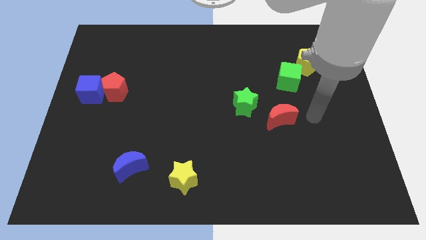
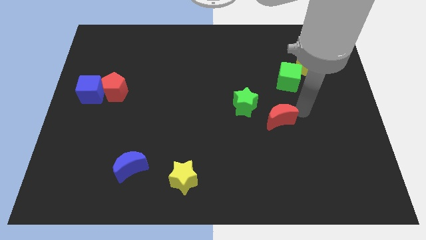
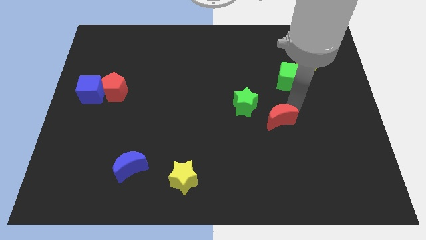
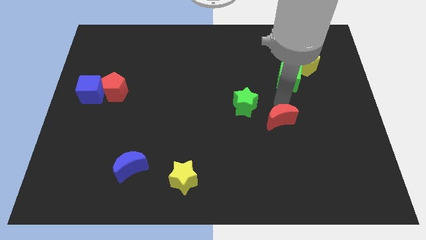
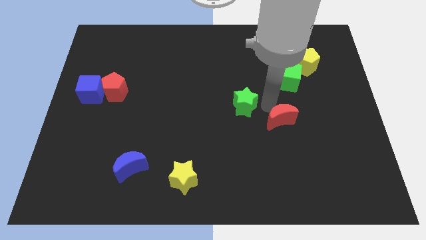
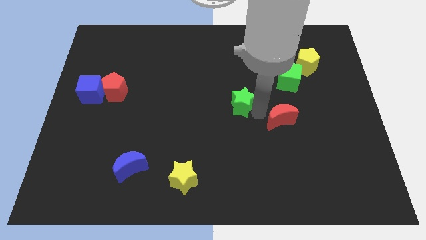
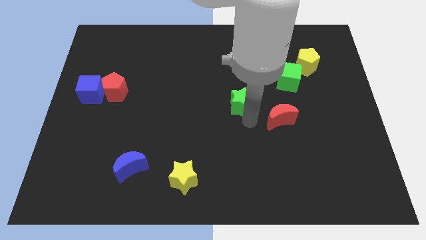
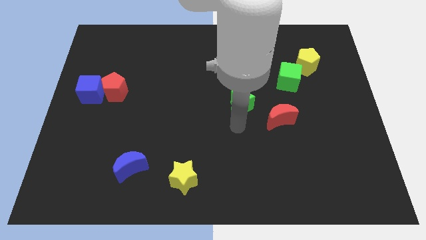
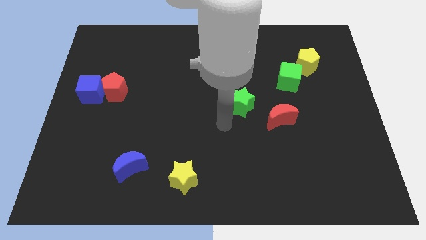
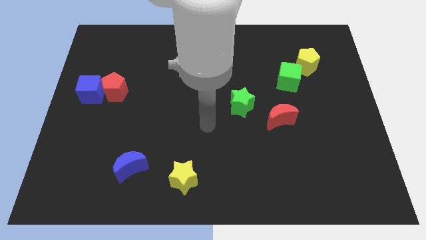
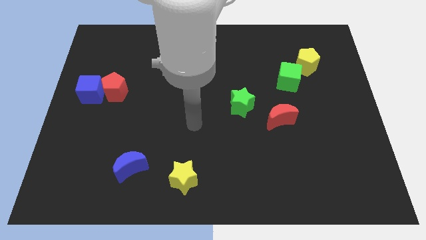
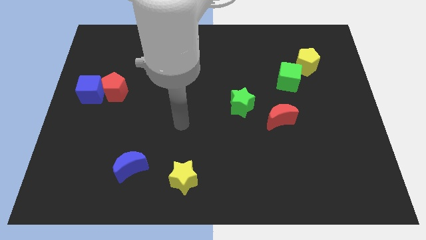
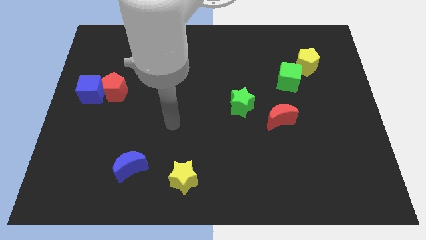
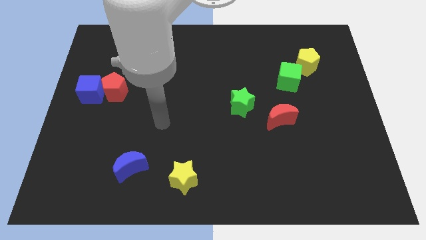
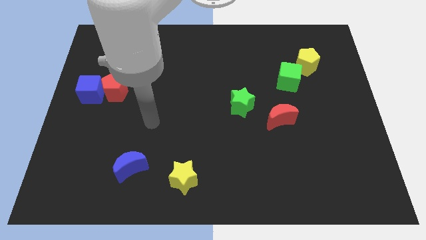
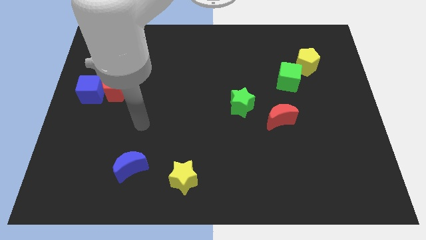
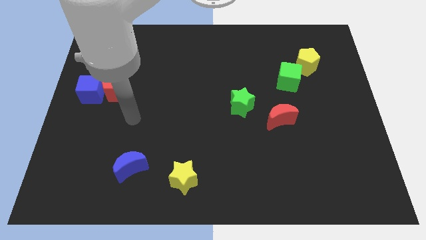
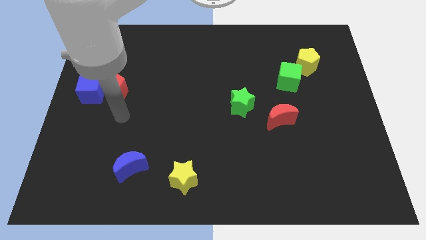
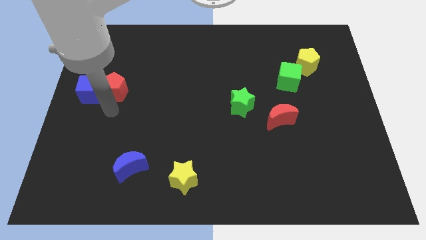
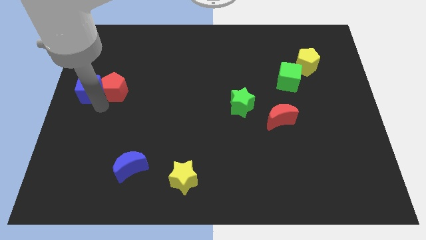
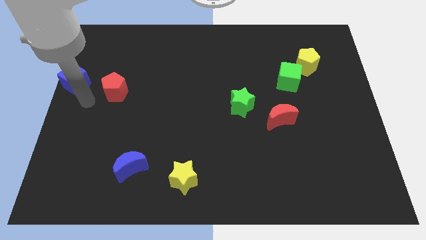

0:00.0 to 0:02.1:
pull the red pentagon apart from the blue cube

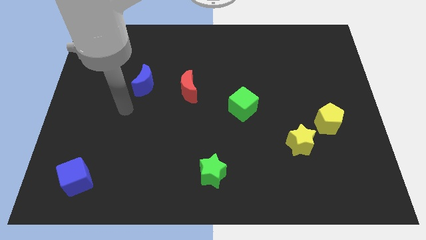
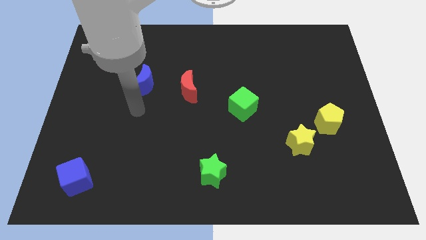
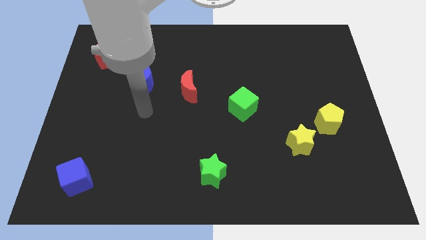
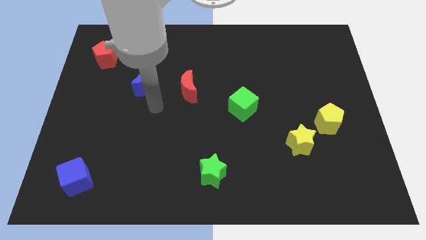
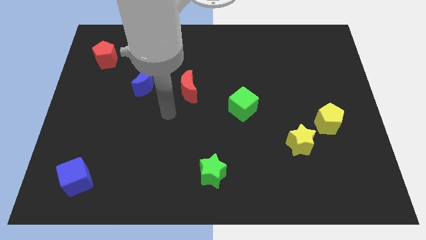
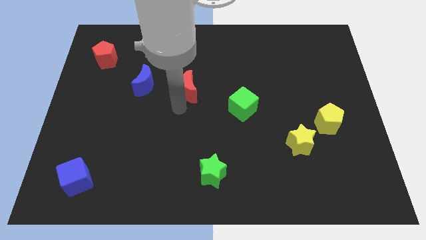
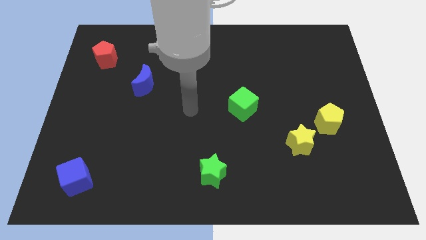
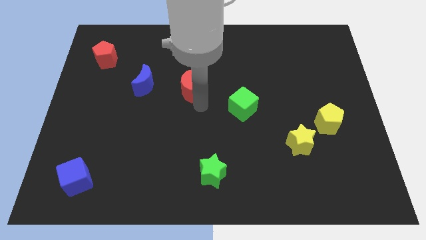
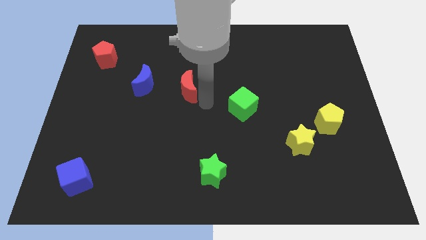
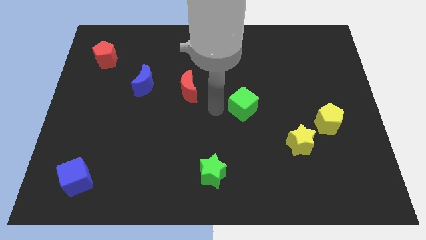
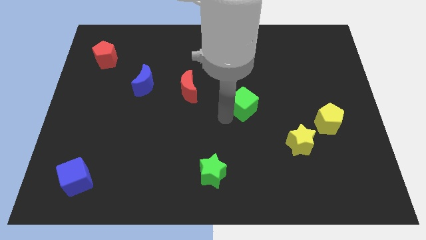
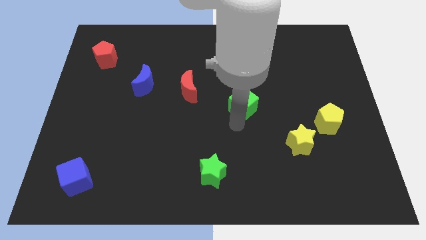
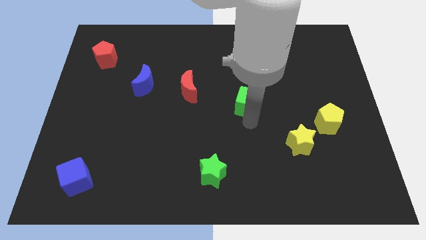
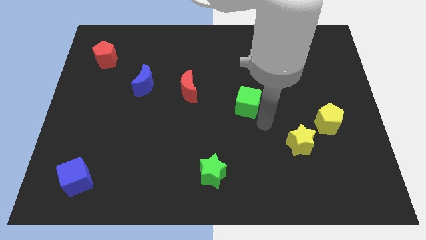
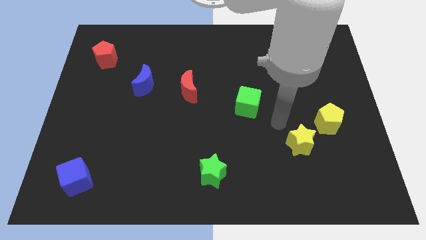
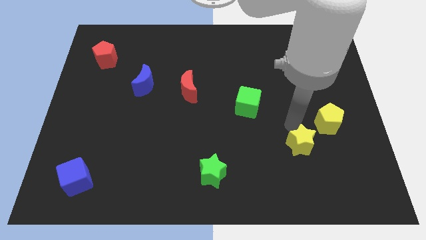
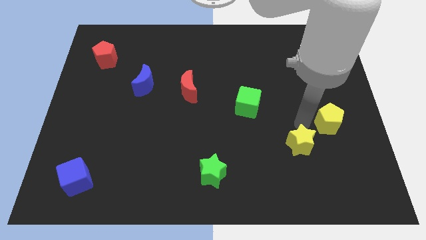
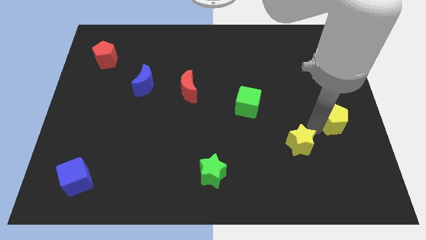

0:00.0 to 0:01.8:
pull the yellow star apart from the yellow pentagon

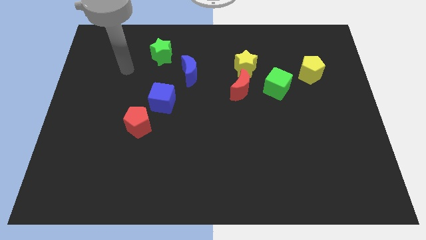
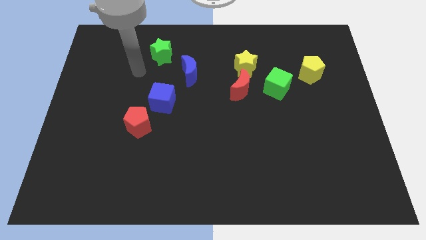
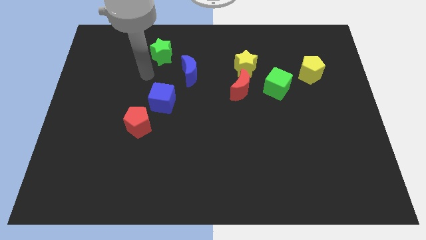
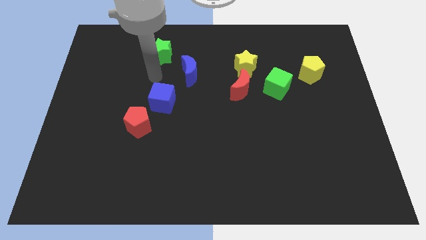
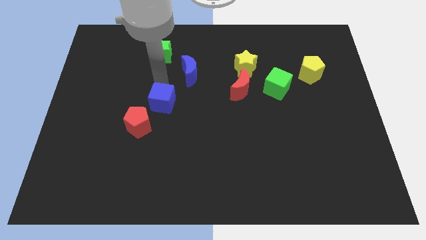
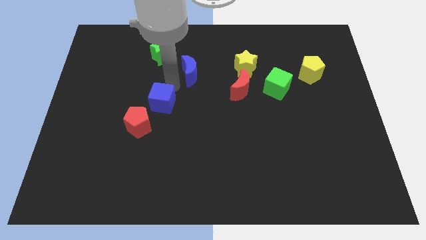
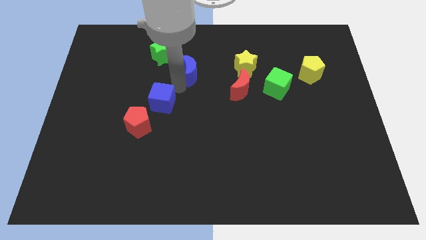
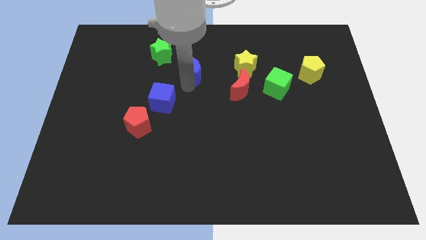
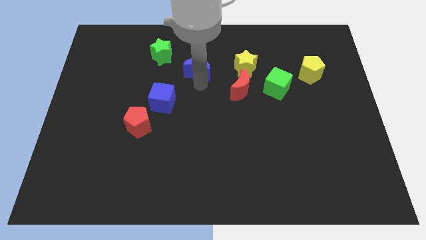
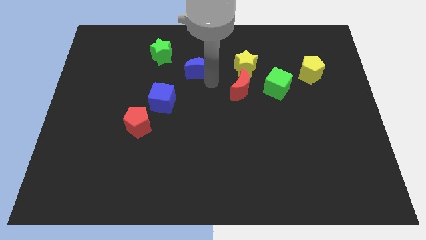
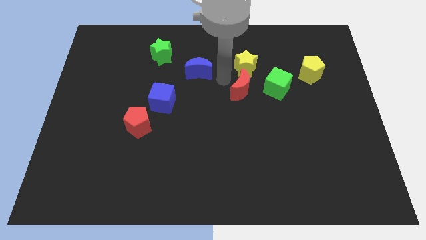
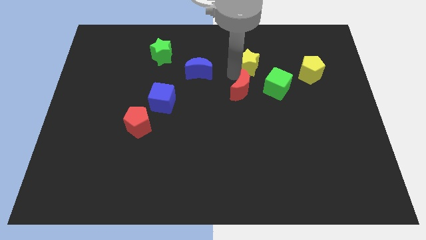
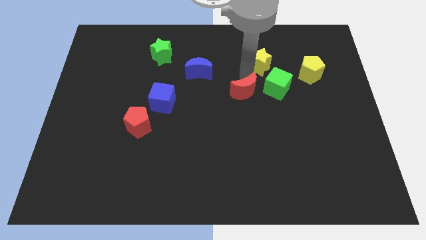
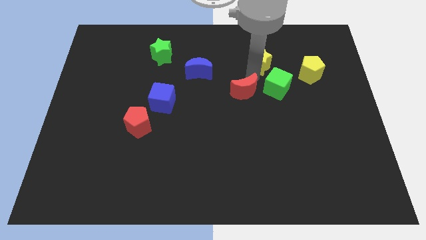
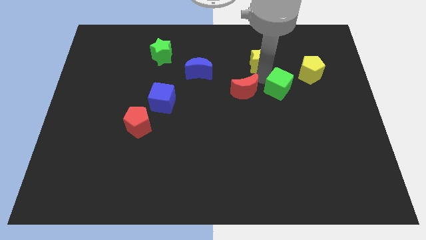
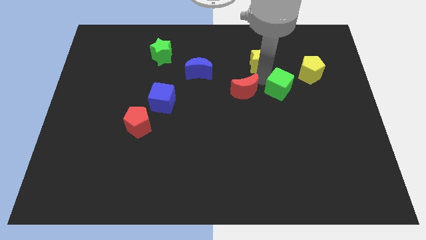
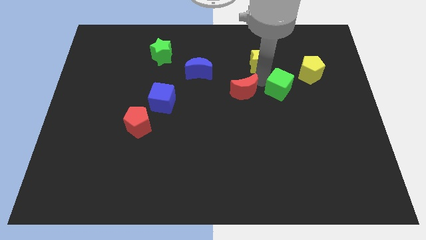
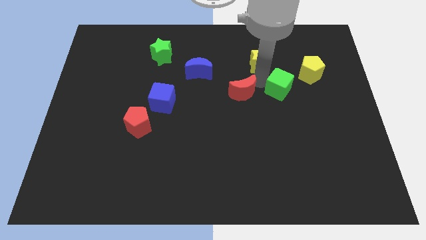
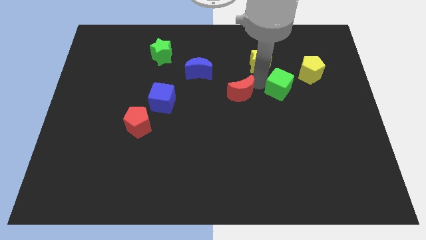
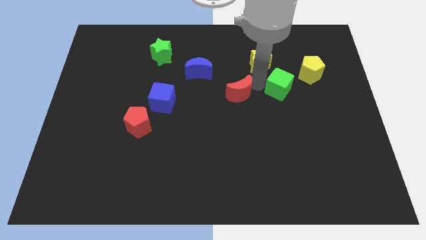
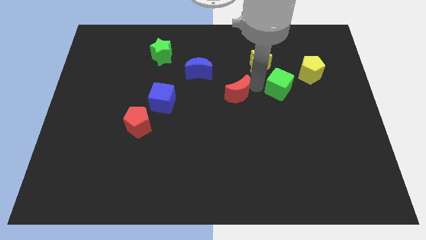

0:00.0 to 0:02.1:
separate the red moon from the yellow star and green cube

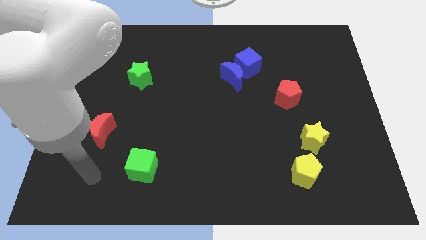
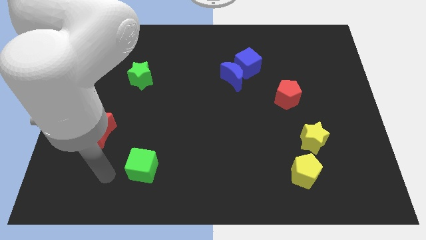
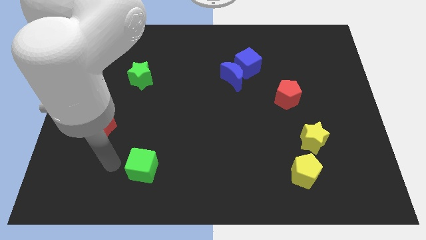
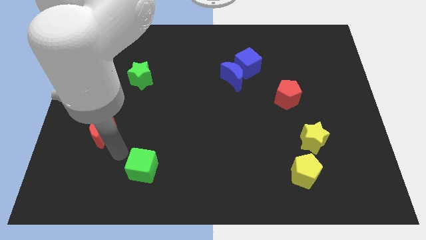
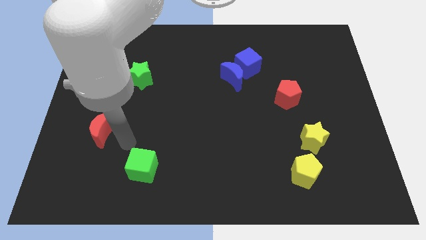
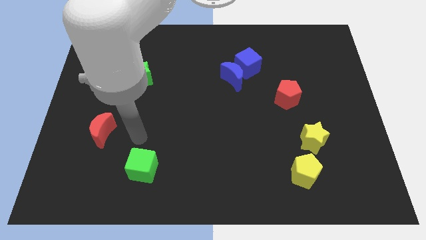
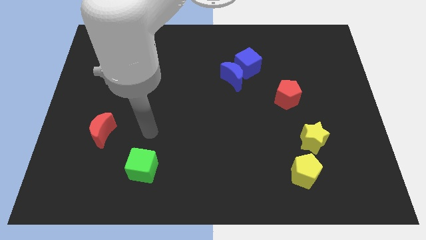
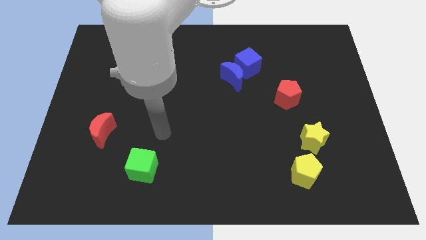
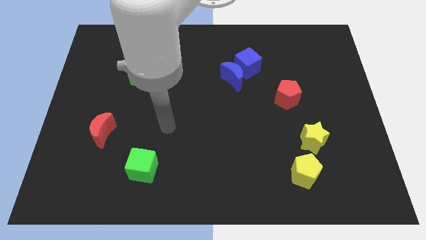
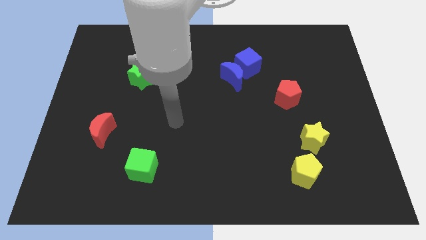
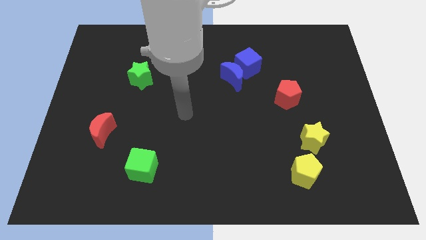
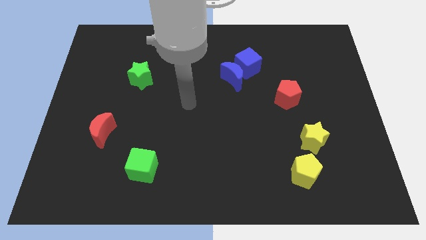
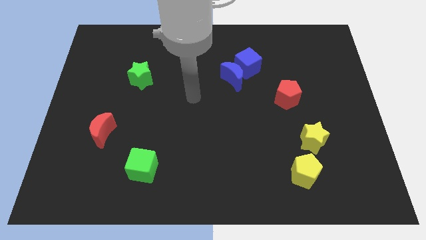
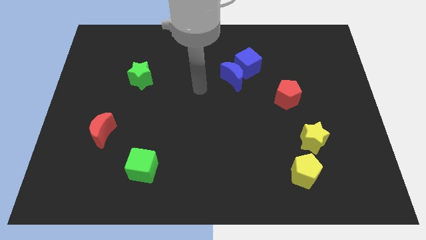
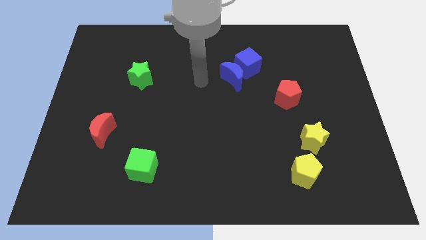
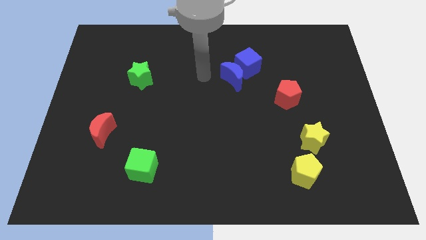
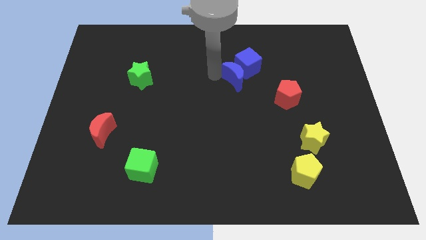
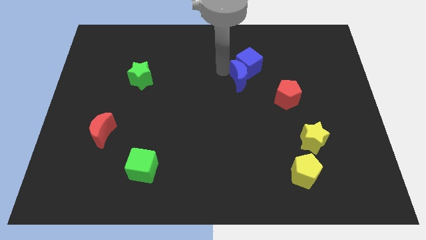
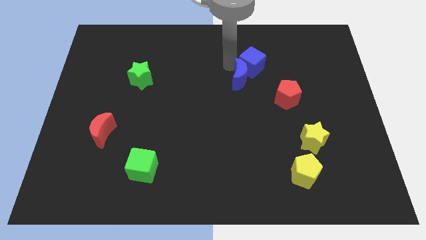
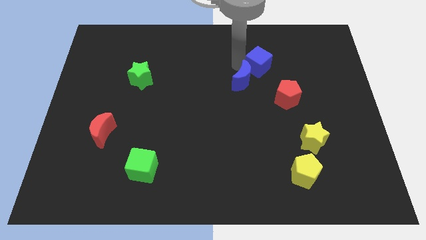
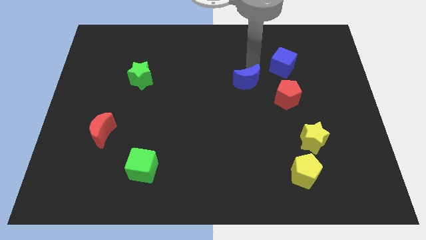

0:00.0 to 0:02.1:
move the blue moon away from the blue cube

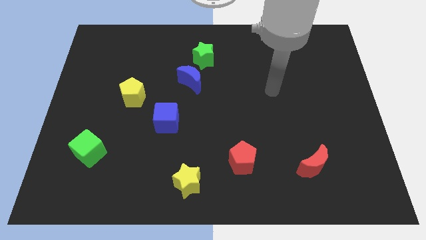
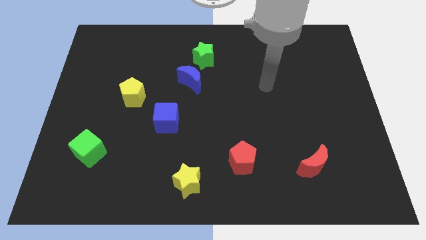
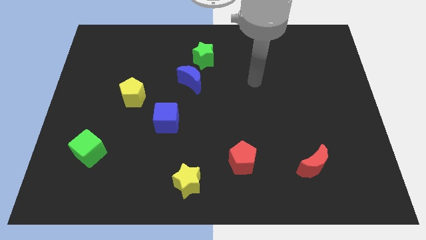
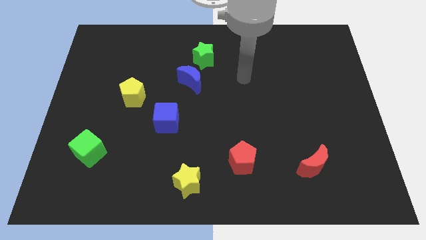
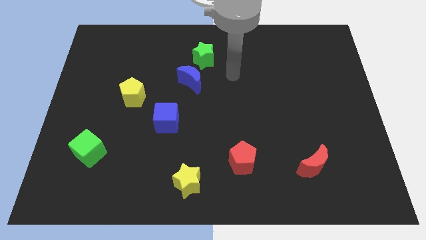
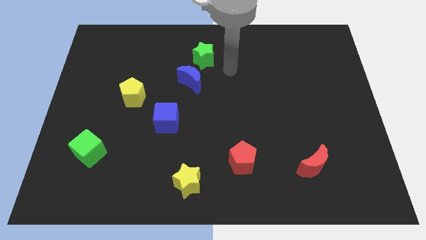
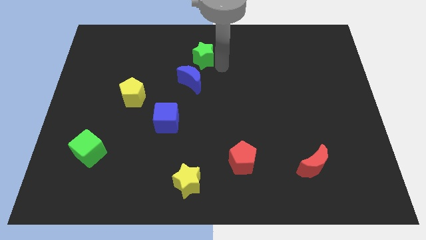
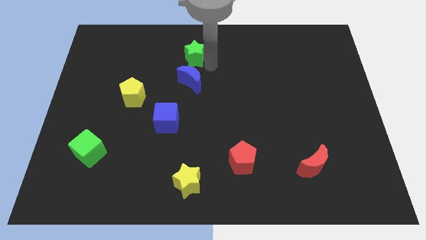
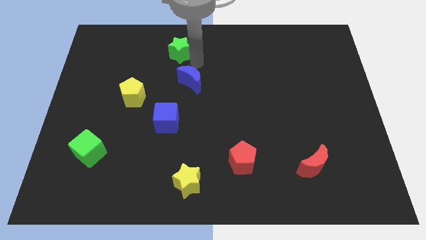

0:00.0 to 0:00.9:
pull the blue moon apart from the green star

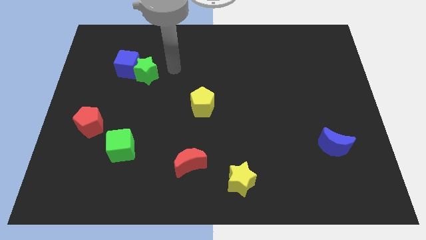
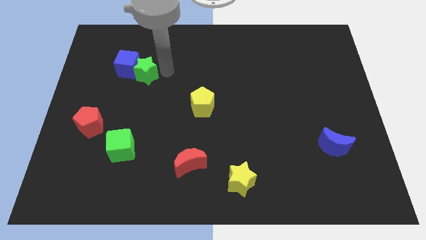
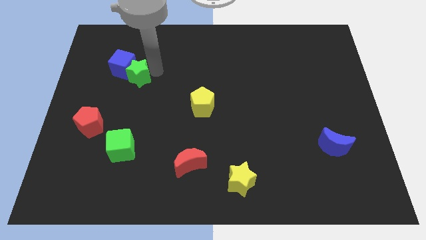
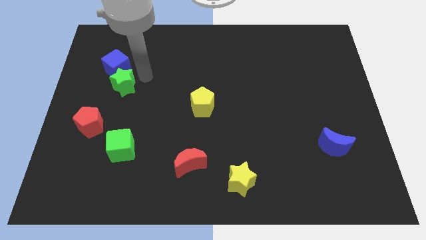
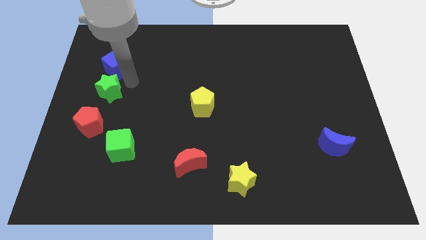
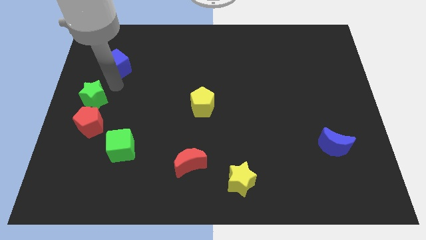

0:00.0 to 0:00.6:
move the blue cube away from the green star
